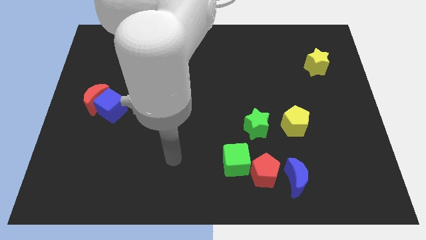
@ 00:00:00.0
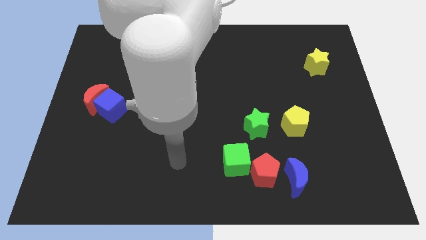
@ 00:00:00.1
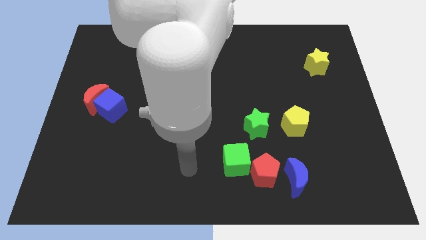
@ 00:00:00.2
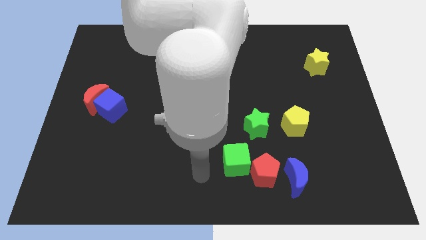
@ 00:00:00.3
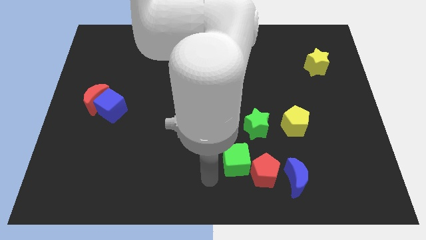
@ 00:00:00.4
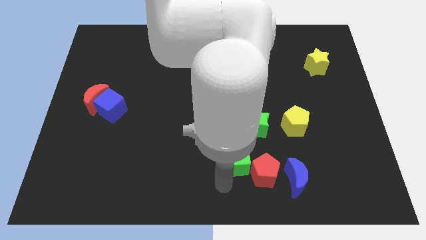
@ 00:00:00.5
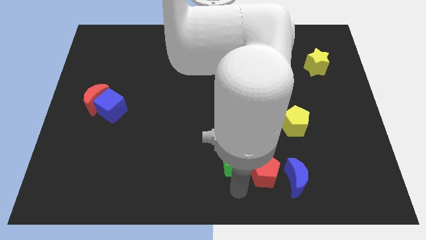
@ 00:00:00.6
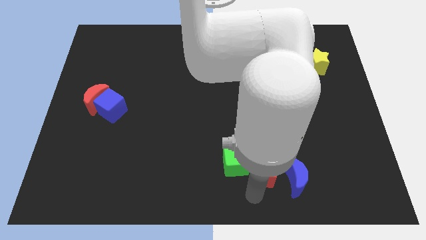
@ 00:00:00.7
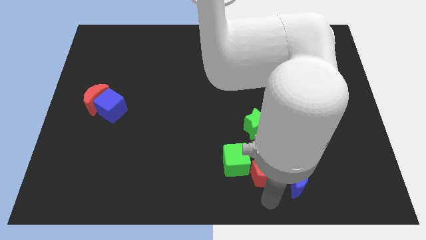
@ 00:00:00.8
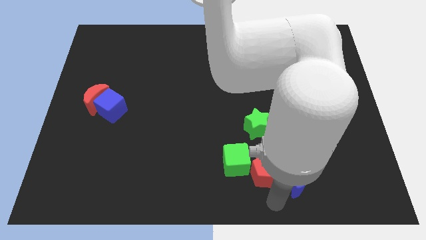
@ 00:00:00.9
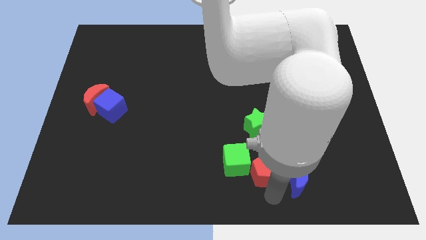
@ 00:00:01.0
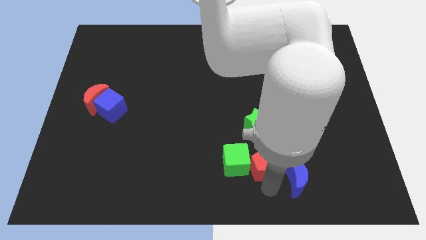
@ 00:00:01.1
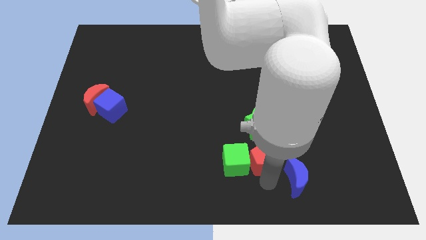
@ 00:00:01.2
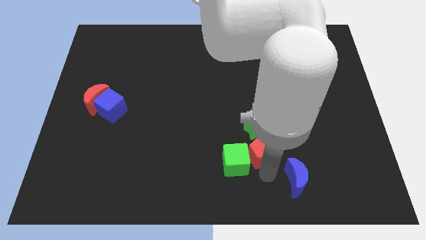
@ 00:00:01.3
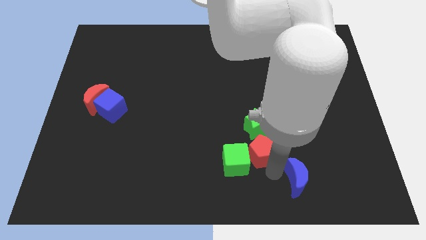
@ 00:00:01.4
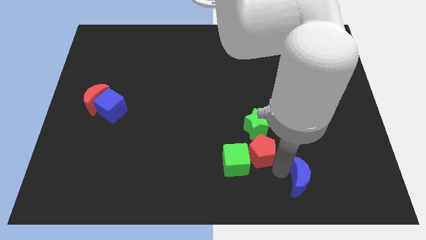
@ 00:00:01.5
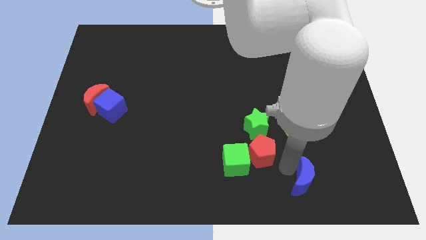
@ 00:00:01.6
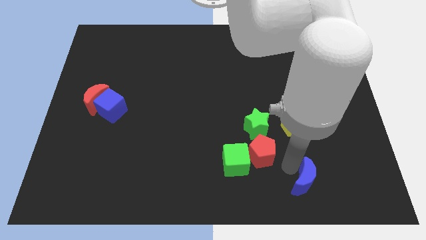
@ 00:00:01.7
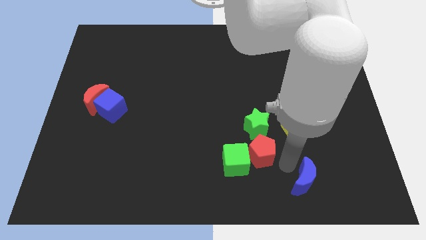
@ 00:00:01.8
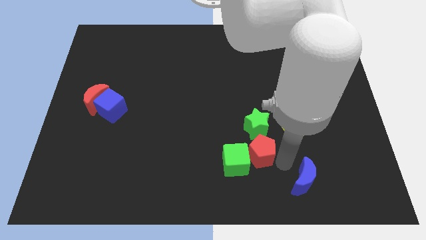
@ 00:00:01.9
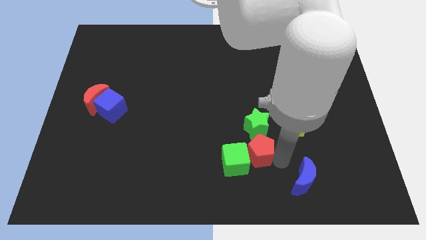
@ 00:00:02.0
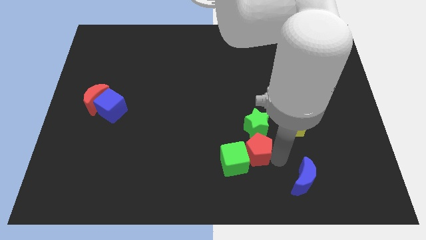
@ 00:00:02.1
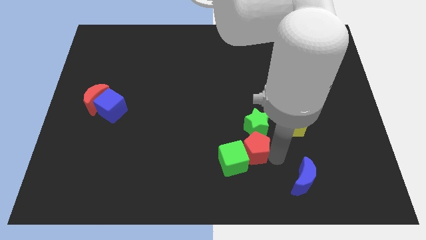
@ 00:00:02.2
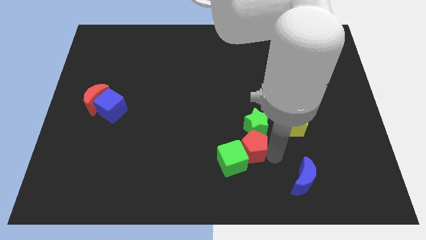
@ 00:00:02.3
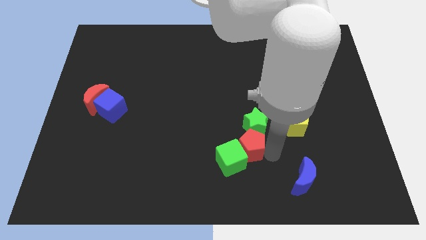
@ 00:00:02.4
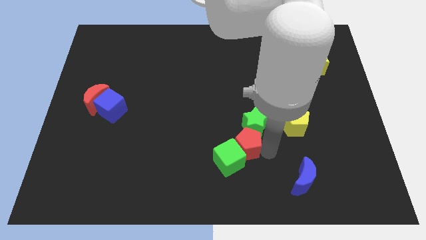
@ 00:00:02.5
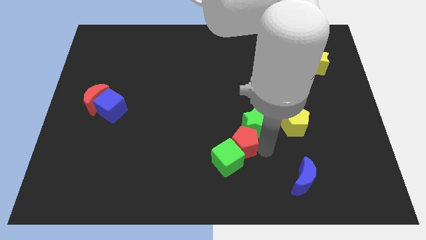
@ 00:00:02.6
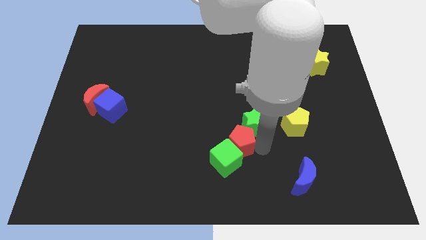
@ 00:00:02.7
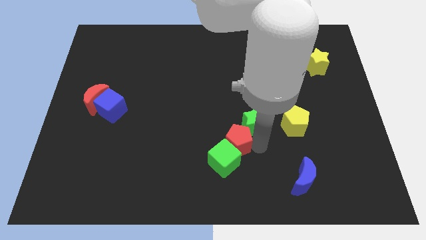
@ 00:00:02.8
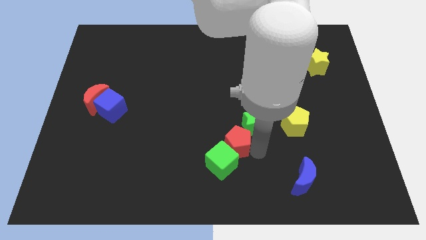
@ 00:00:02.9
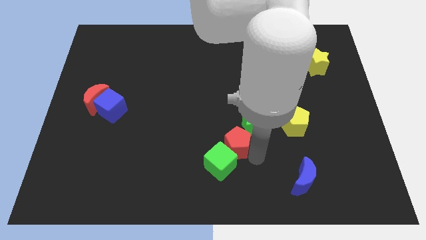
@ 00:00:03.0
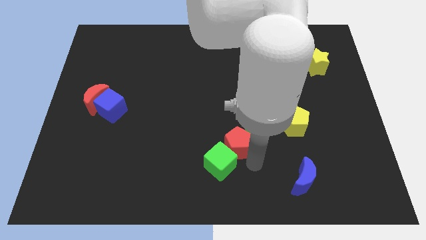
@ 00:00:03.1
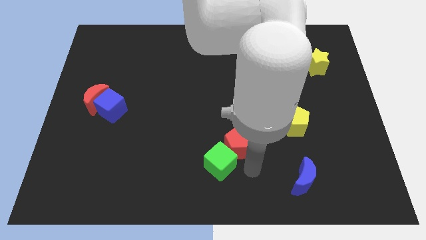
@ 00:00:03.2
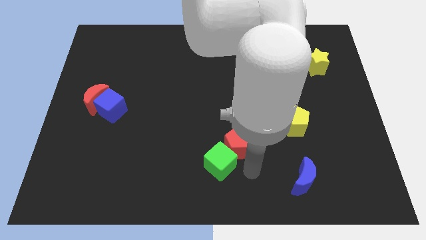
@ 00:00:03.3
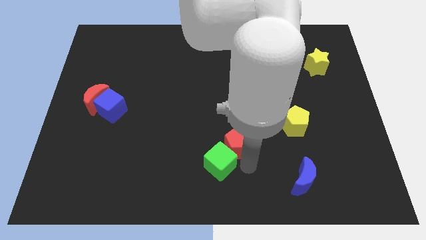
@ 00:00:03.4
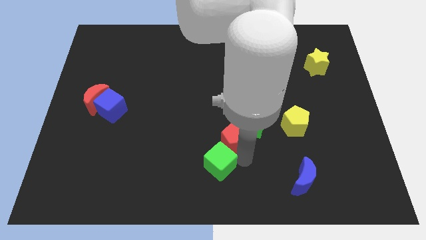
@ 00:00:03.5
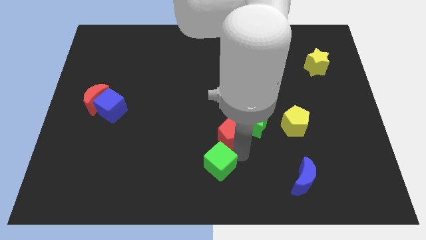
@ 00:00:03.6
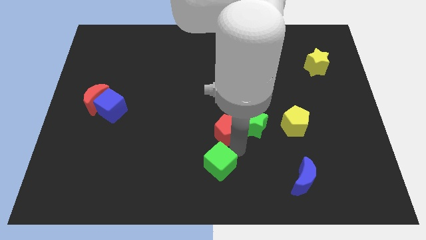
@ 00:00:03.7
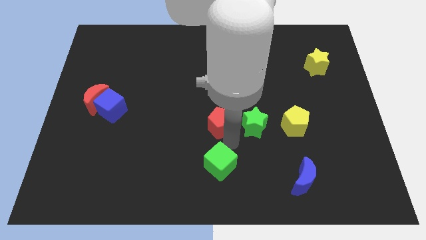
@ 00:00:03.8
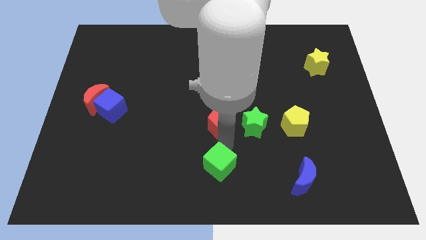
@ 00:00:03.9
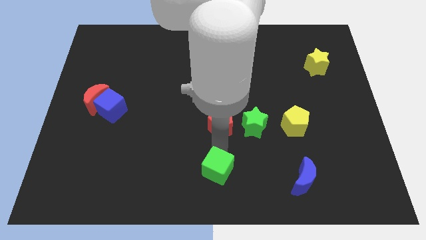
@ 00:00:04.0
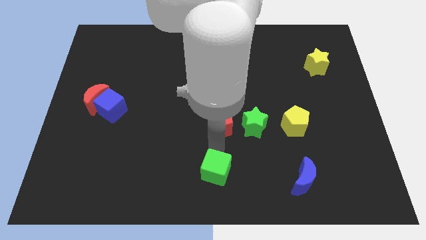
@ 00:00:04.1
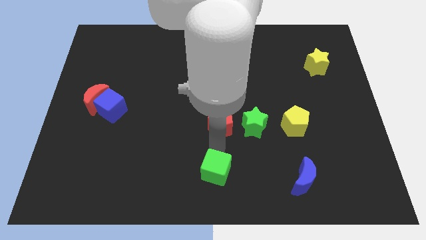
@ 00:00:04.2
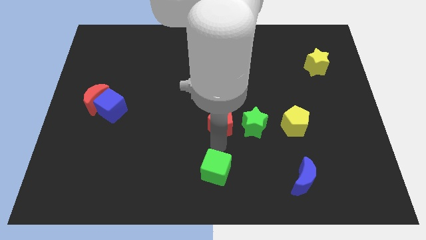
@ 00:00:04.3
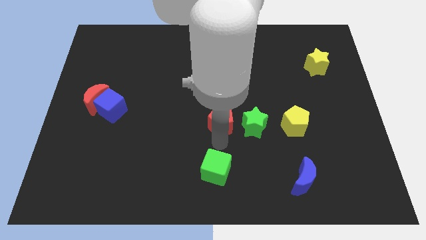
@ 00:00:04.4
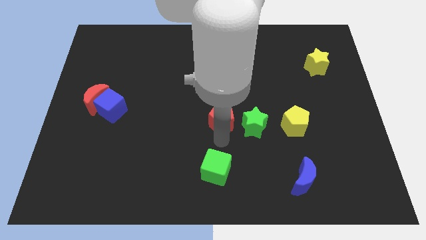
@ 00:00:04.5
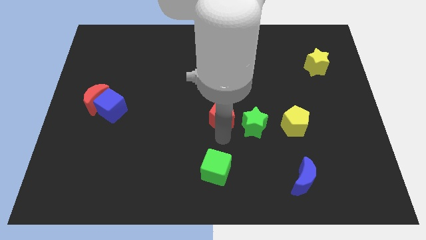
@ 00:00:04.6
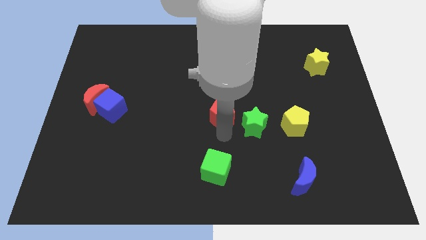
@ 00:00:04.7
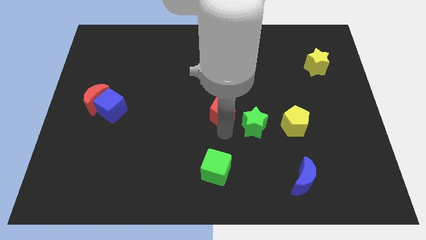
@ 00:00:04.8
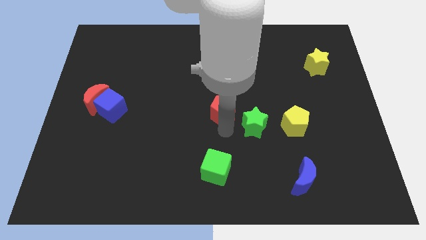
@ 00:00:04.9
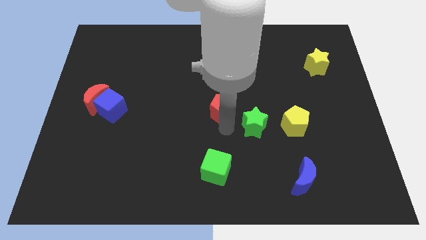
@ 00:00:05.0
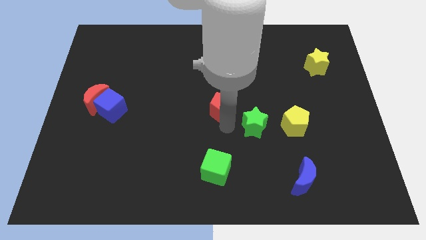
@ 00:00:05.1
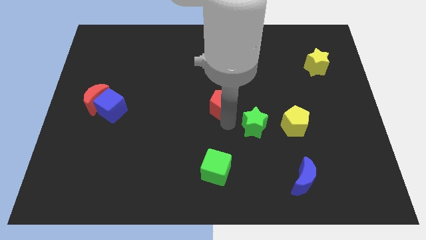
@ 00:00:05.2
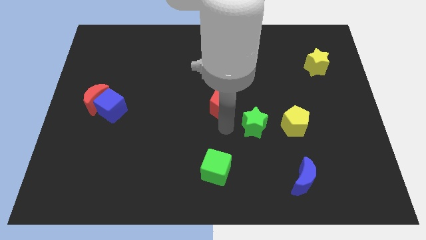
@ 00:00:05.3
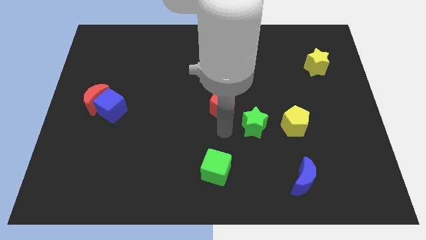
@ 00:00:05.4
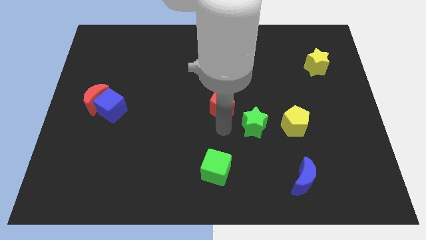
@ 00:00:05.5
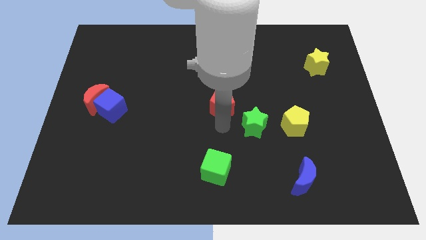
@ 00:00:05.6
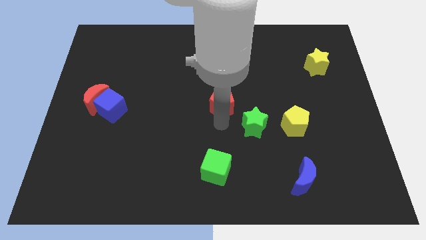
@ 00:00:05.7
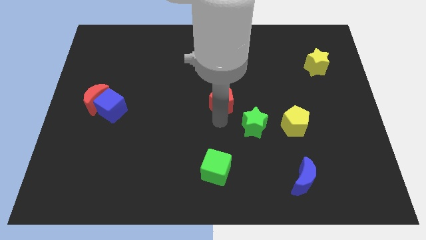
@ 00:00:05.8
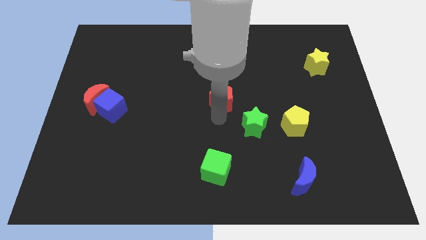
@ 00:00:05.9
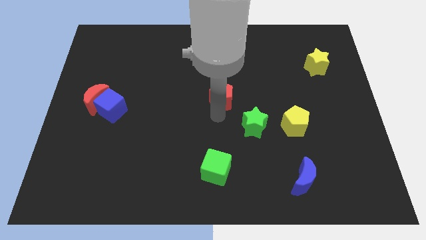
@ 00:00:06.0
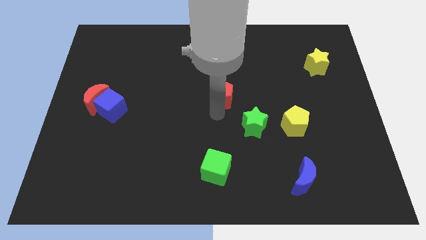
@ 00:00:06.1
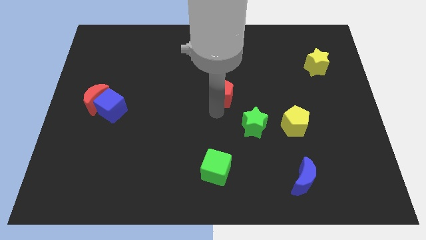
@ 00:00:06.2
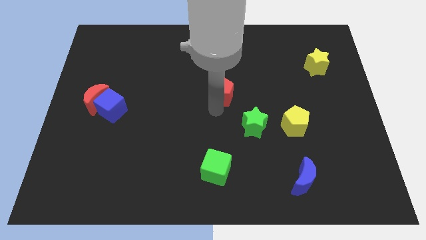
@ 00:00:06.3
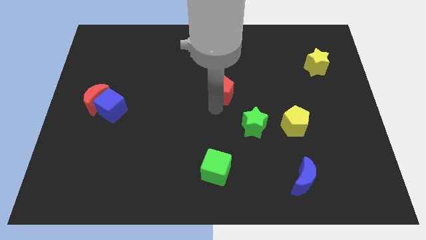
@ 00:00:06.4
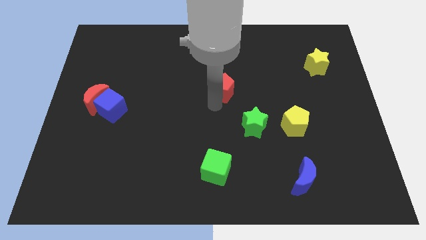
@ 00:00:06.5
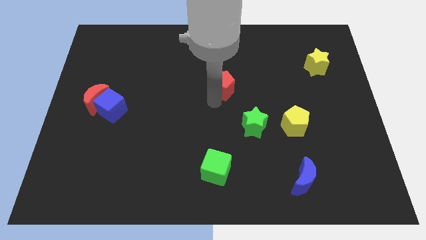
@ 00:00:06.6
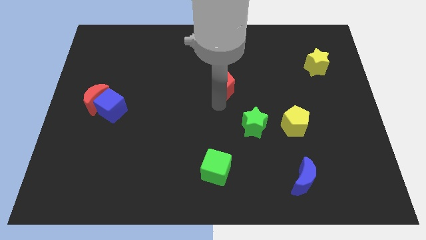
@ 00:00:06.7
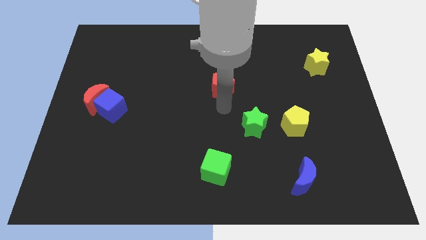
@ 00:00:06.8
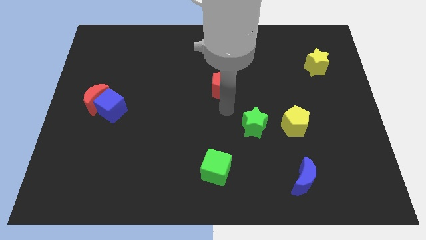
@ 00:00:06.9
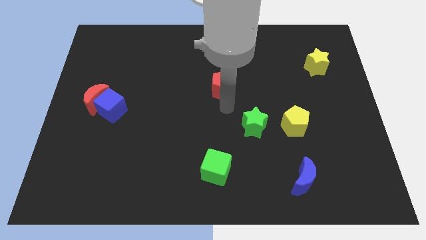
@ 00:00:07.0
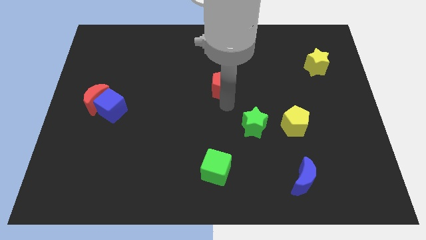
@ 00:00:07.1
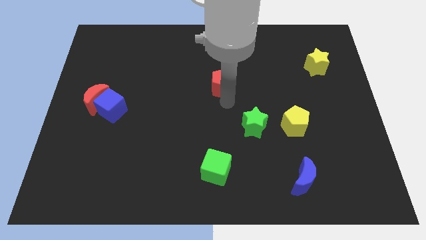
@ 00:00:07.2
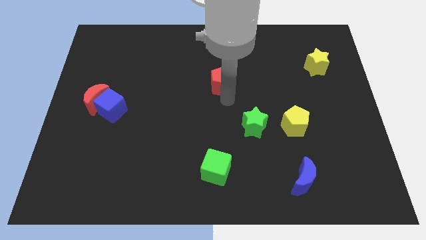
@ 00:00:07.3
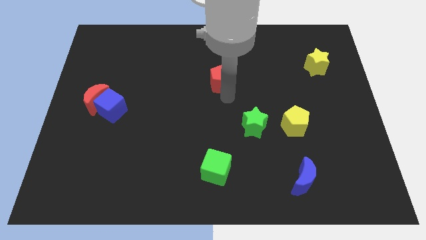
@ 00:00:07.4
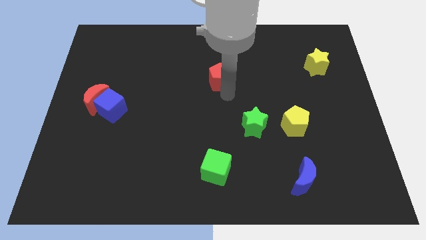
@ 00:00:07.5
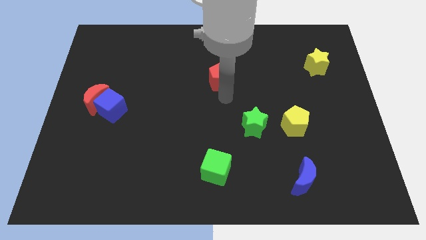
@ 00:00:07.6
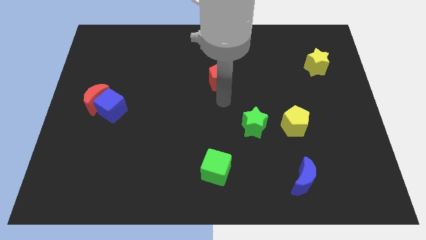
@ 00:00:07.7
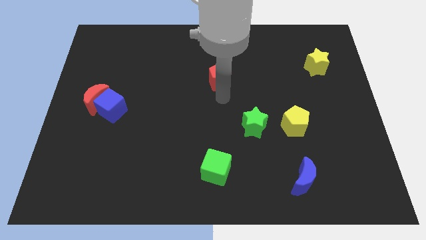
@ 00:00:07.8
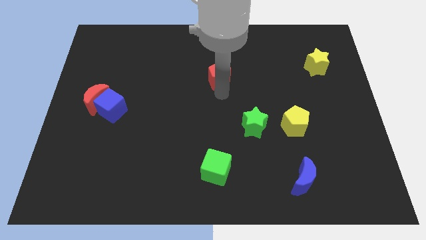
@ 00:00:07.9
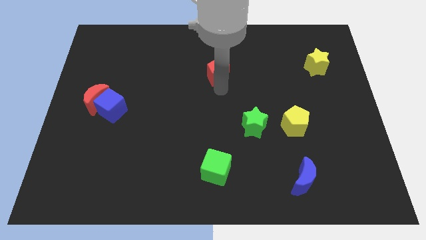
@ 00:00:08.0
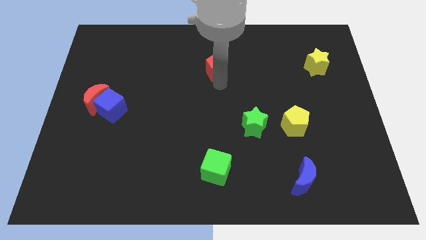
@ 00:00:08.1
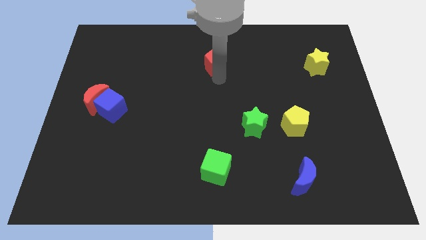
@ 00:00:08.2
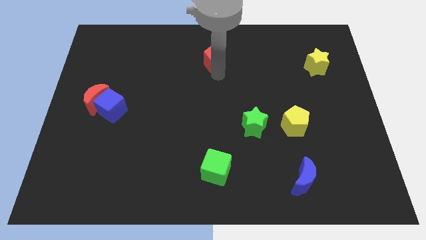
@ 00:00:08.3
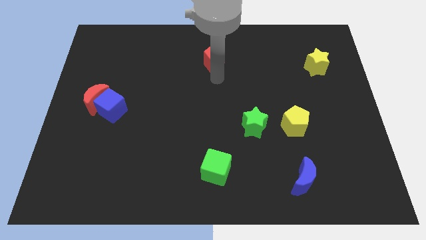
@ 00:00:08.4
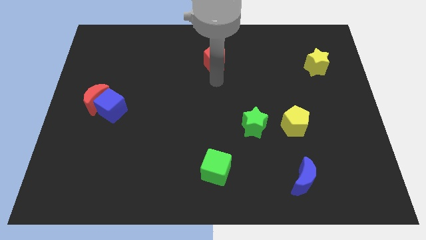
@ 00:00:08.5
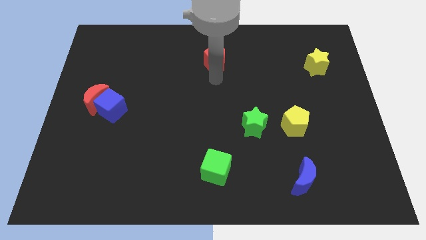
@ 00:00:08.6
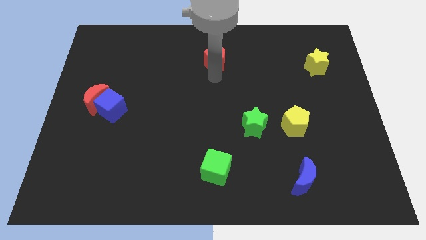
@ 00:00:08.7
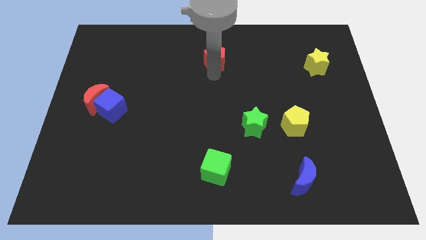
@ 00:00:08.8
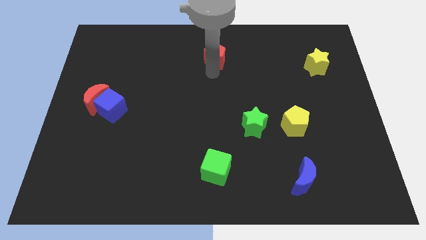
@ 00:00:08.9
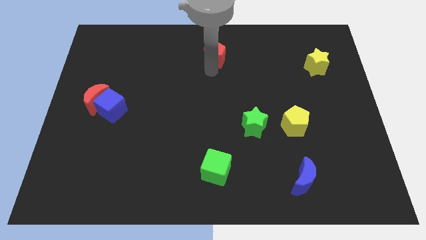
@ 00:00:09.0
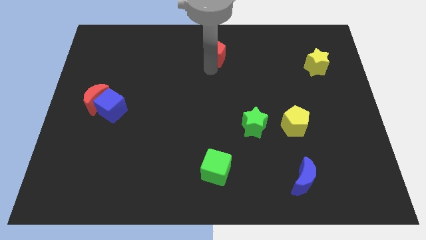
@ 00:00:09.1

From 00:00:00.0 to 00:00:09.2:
push the red pentagon to the top side
